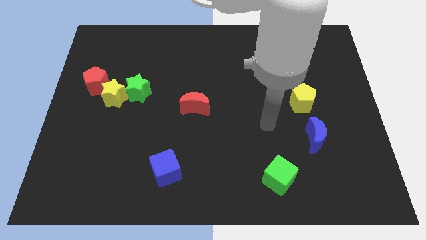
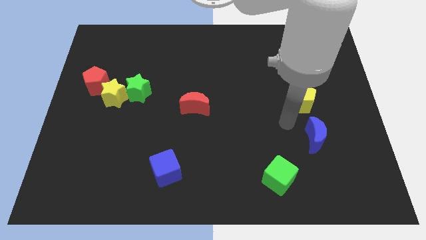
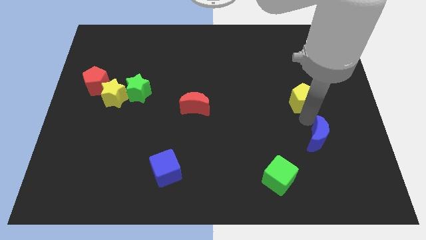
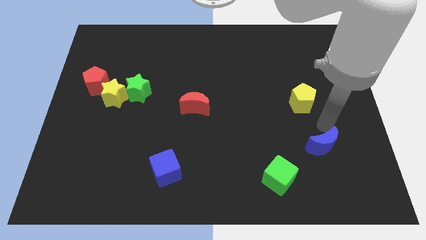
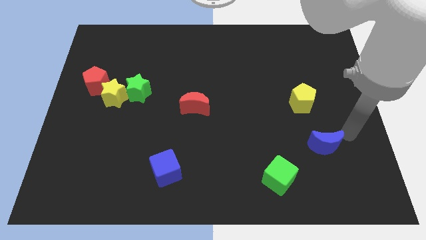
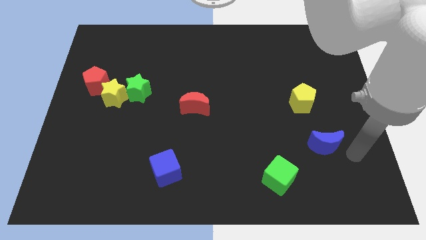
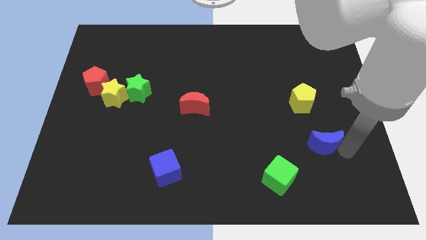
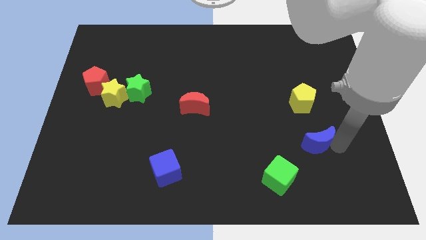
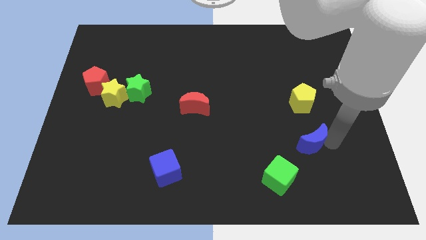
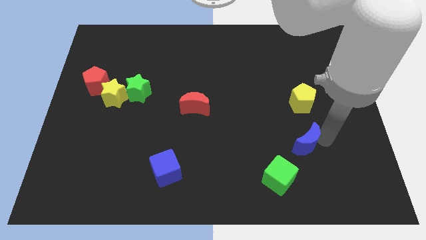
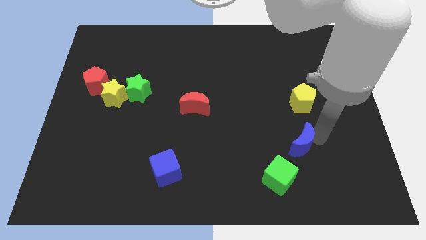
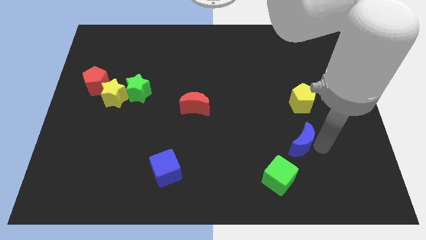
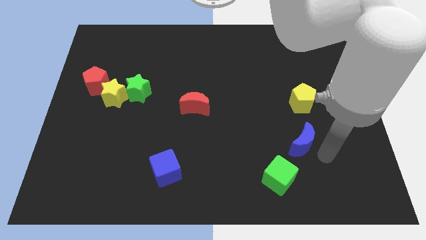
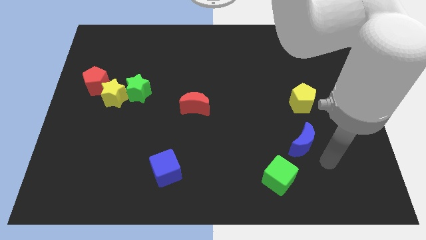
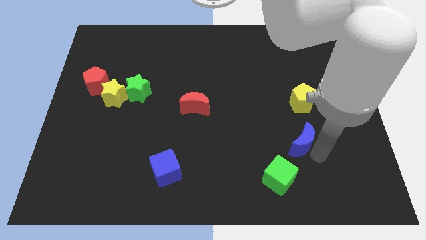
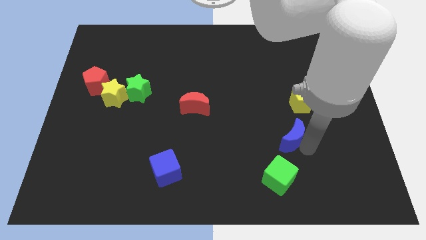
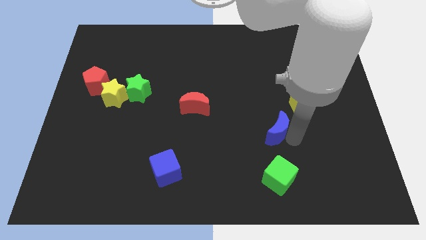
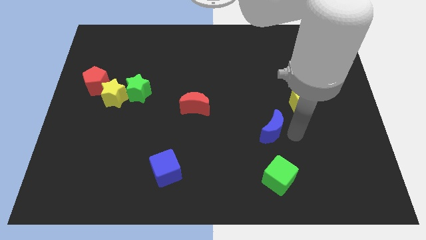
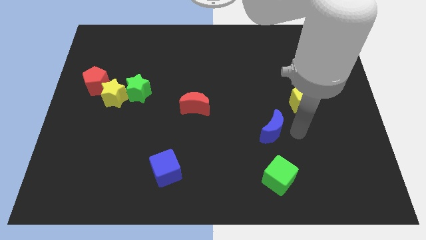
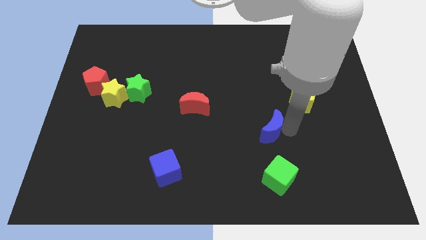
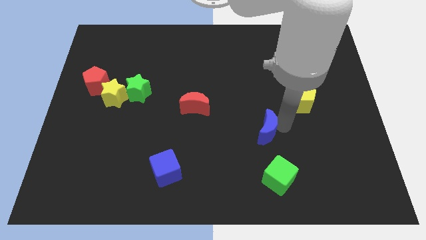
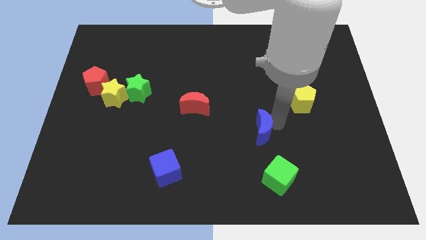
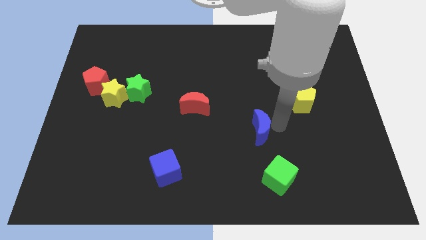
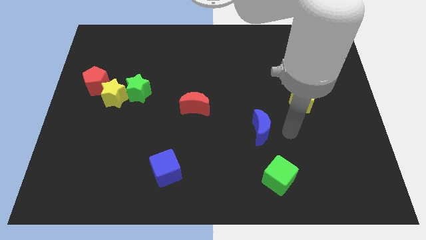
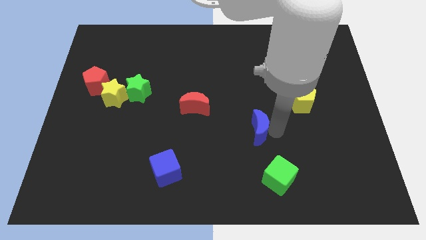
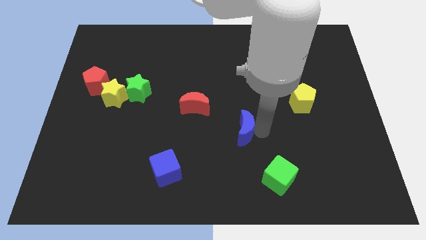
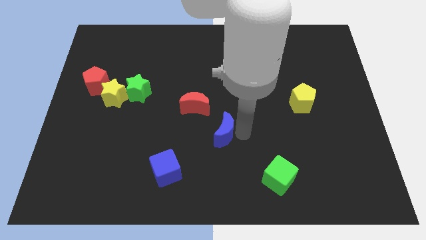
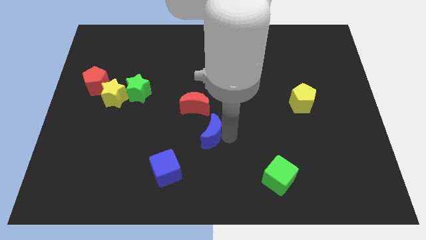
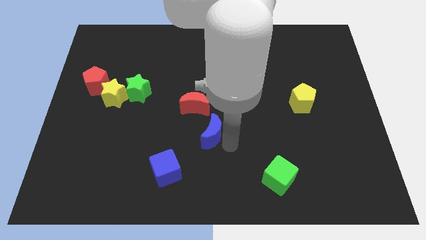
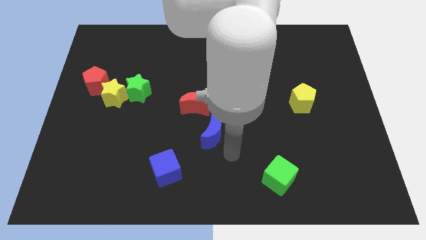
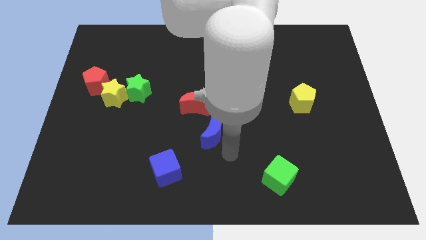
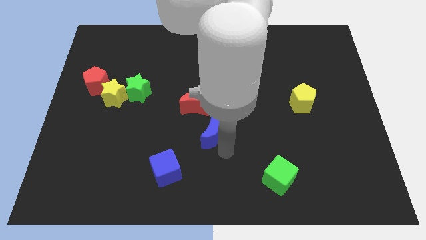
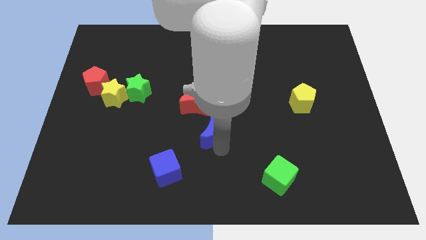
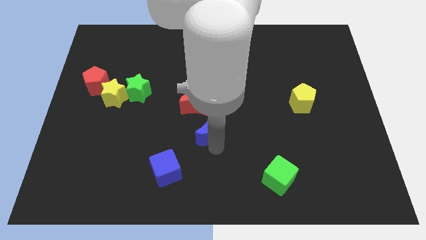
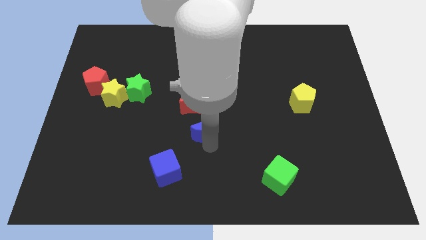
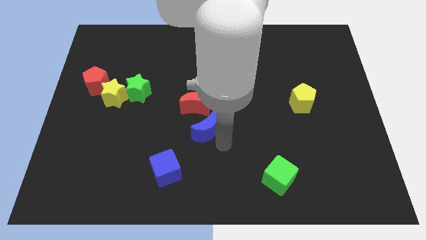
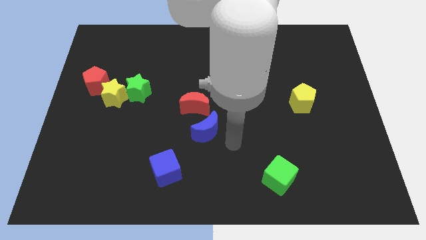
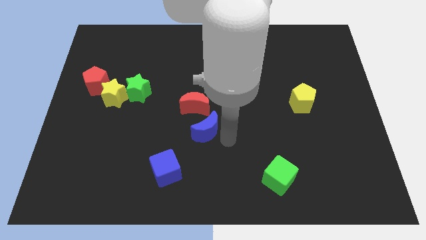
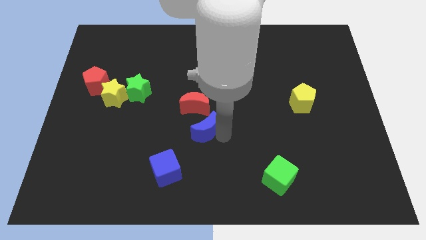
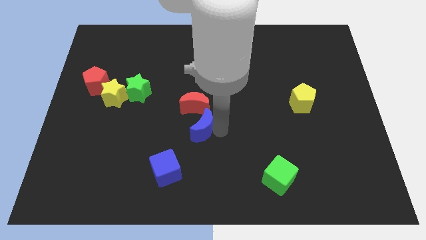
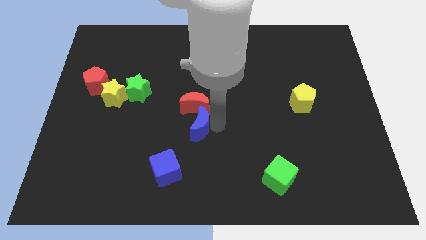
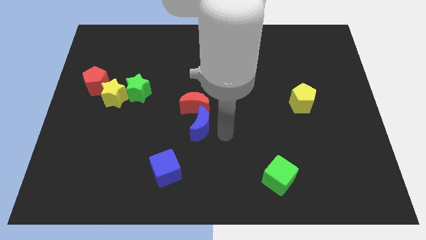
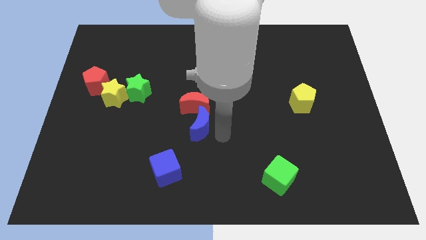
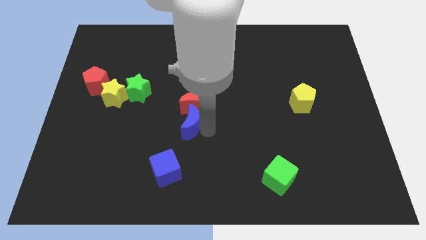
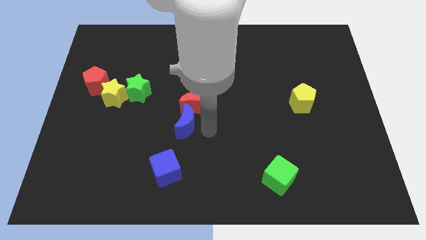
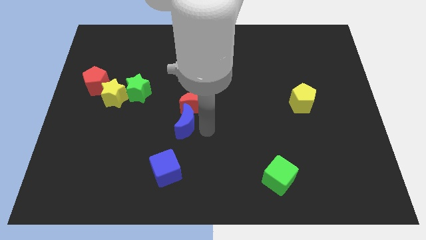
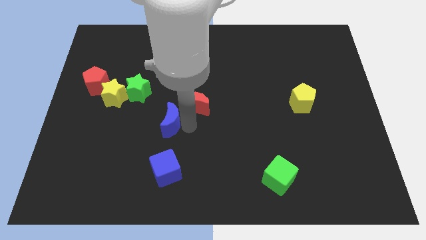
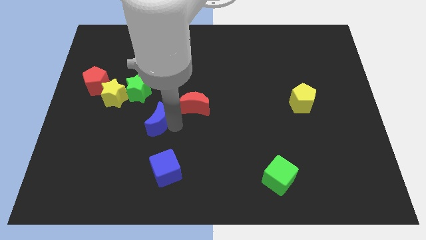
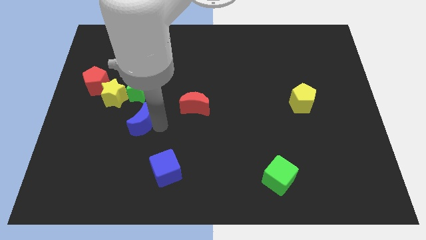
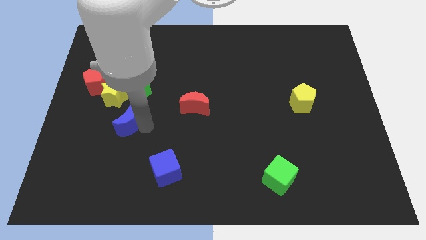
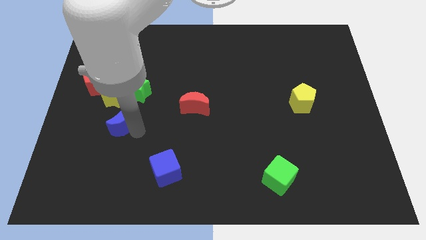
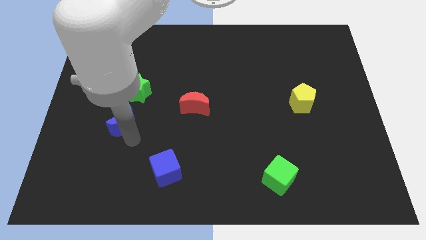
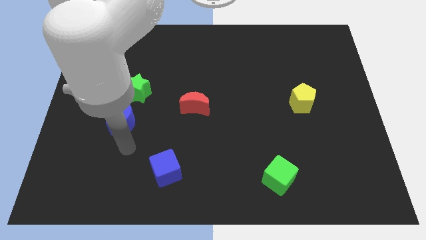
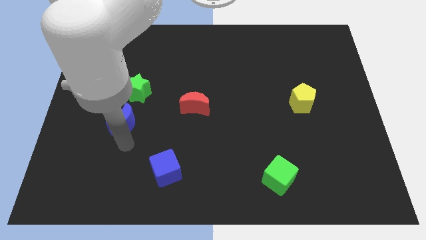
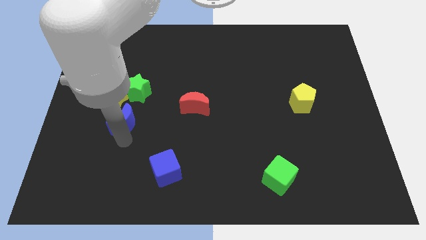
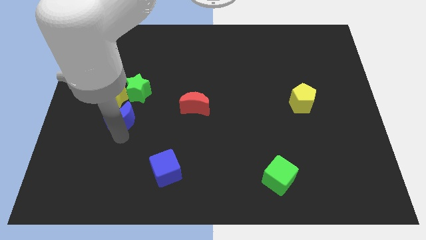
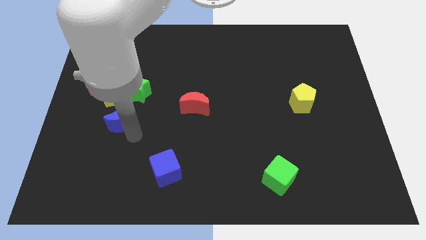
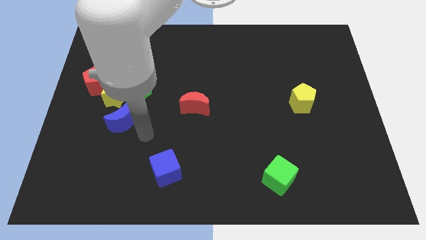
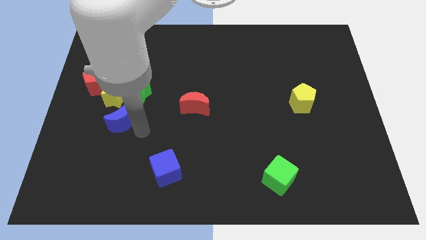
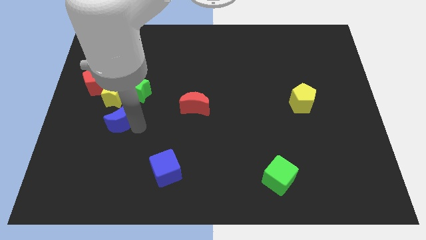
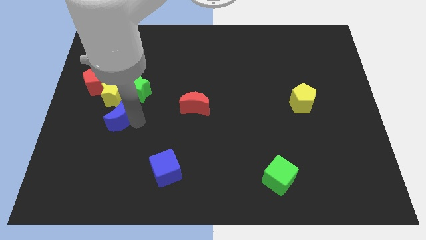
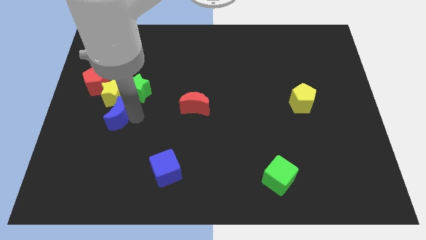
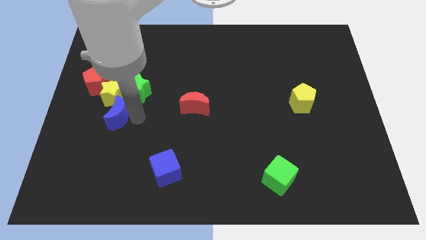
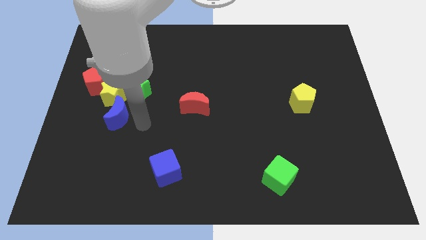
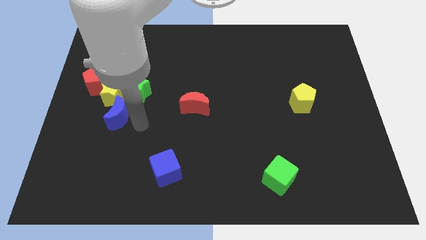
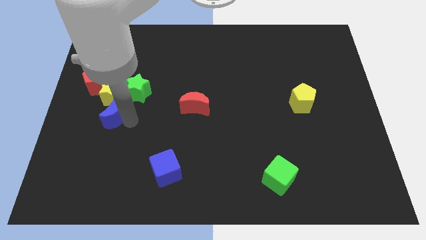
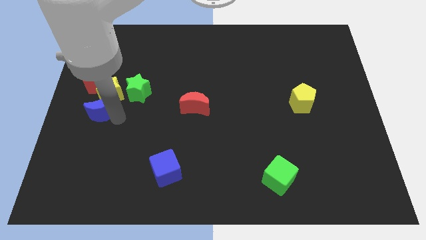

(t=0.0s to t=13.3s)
put the blue moon to the center left

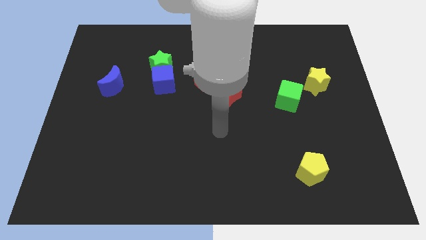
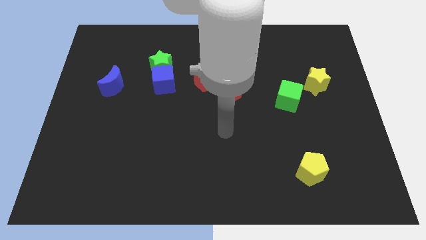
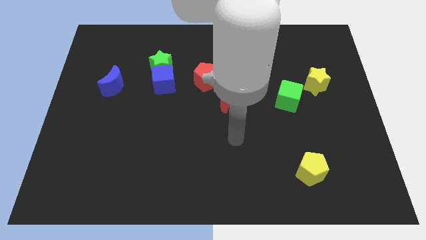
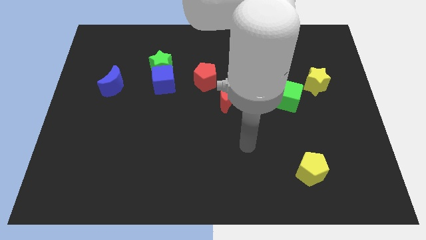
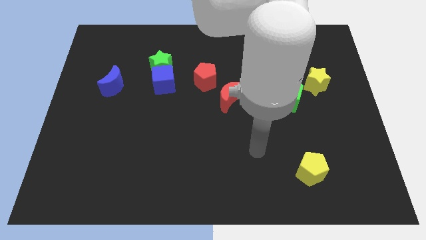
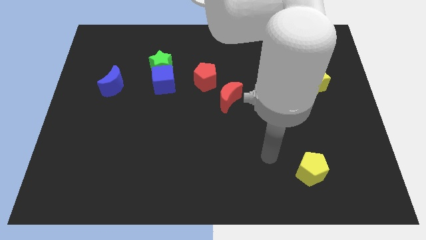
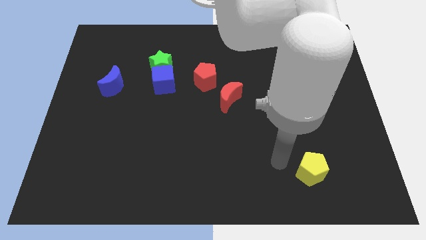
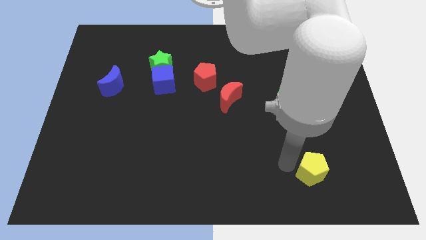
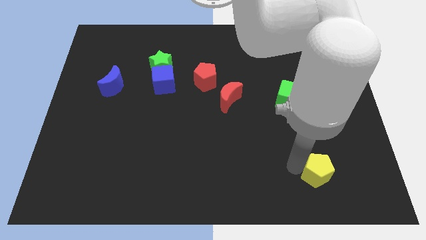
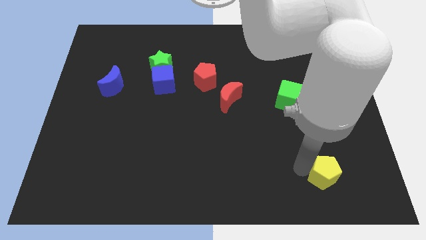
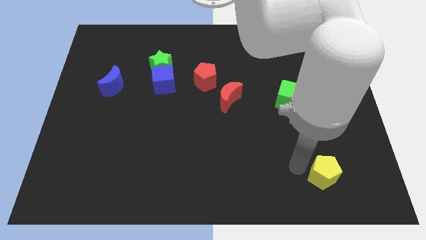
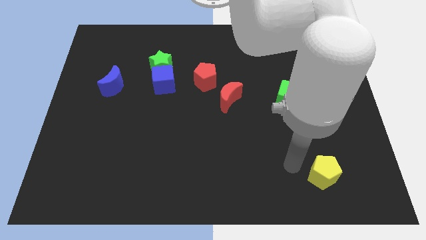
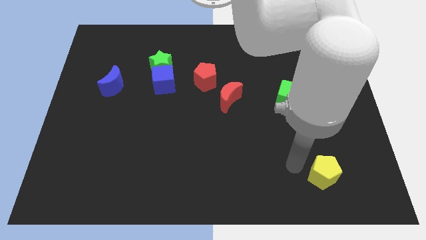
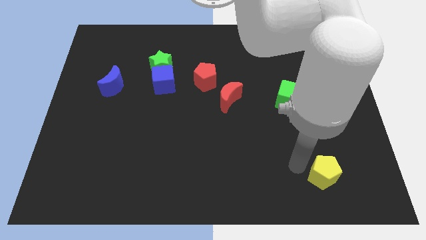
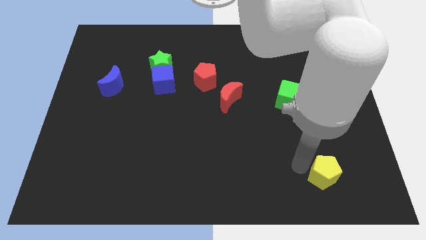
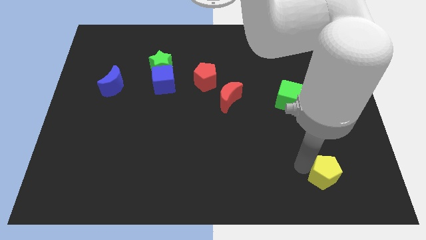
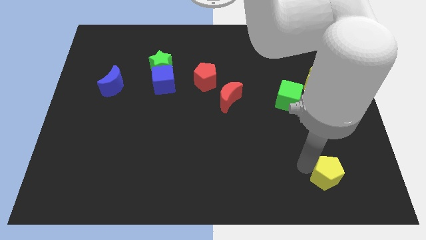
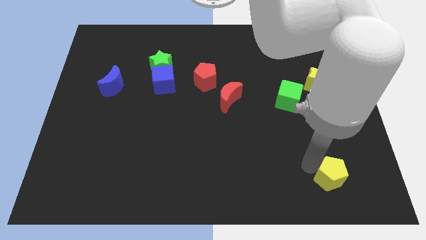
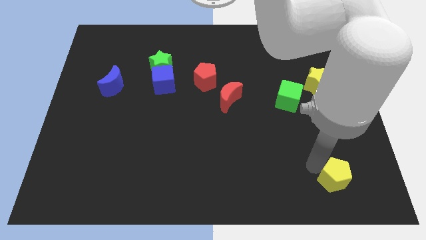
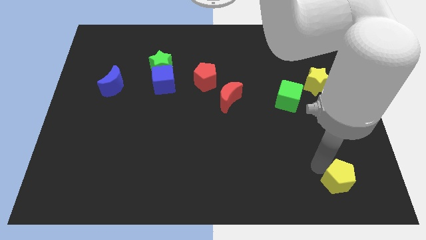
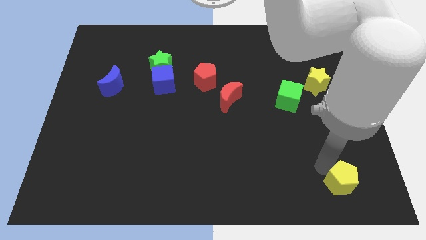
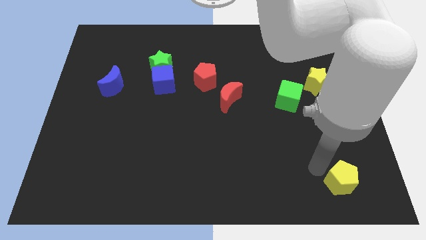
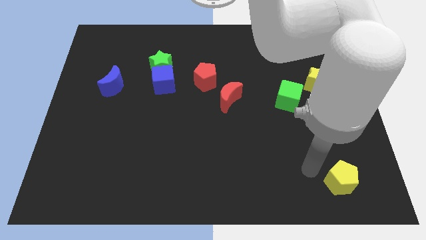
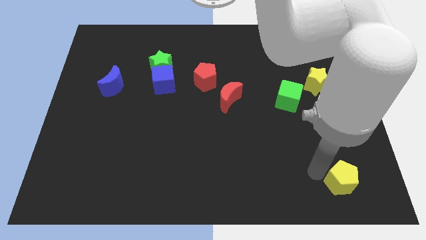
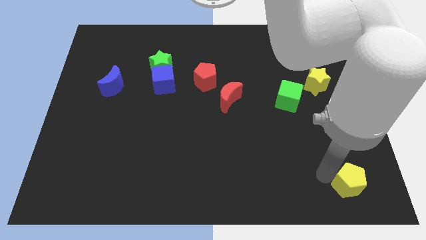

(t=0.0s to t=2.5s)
push the yellow pentagon to the bottom right corner
